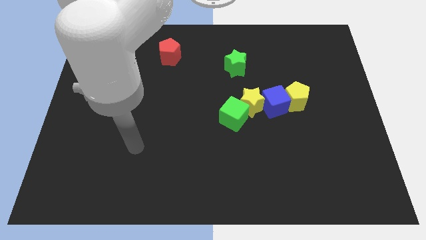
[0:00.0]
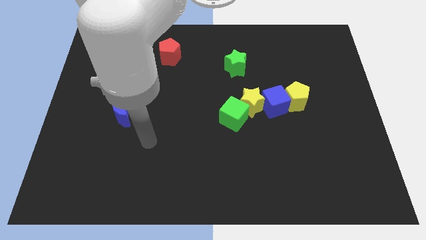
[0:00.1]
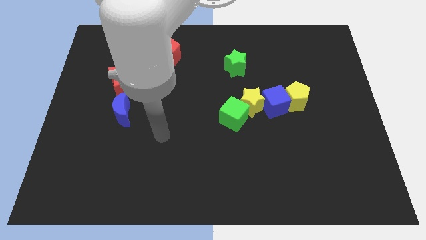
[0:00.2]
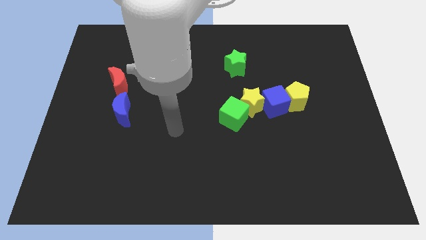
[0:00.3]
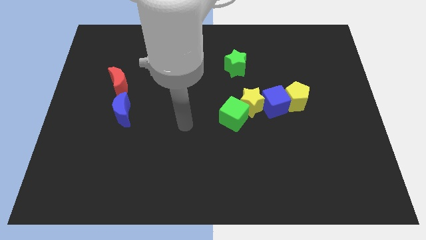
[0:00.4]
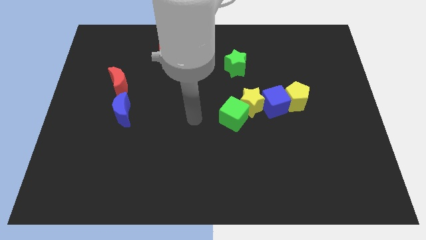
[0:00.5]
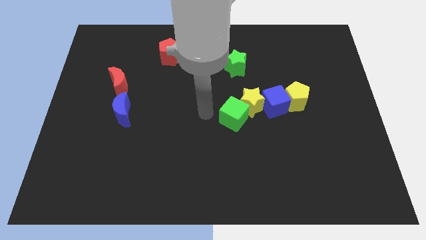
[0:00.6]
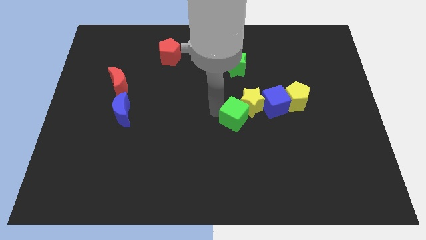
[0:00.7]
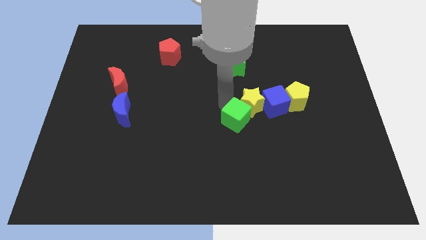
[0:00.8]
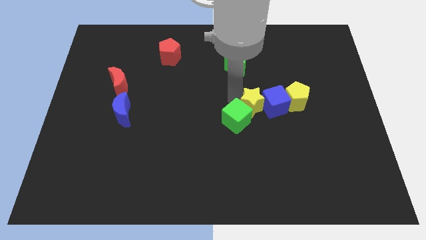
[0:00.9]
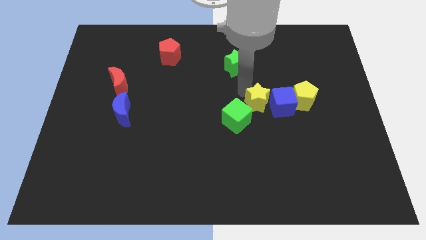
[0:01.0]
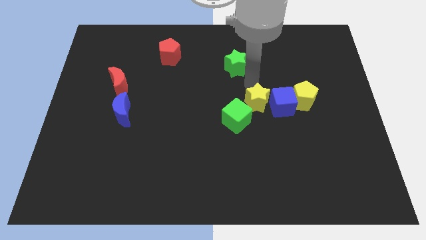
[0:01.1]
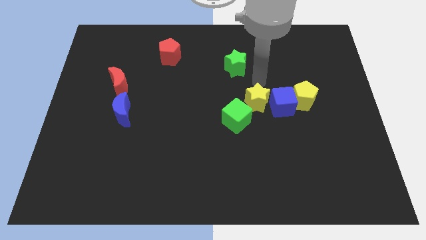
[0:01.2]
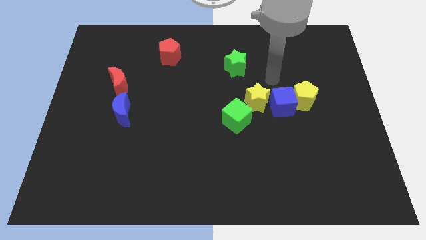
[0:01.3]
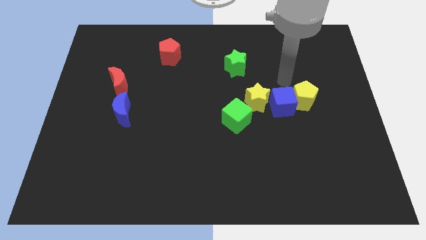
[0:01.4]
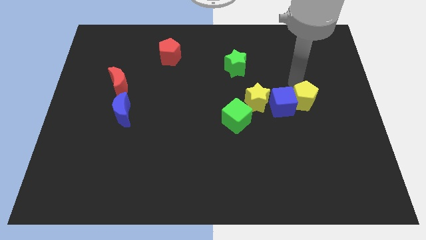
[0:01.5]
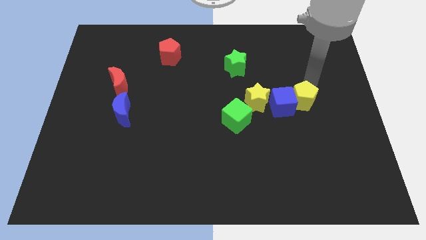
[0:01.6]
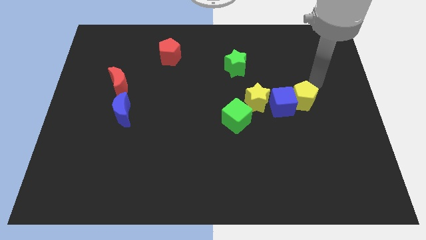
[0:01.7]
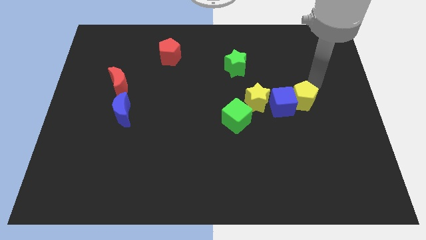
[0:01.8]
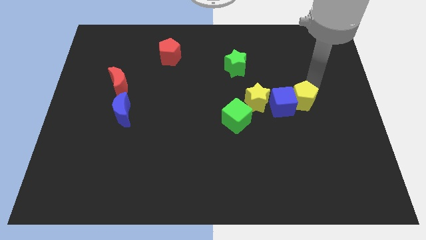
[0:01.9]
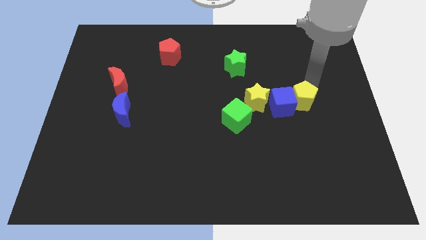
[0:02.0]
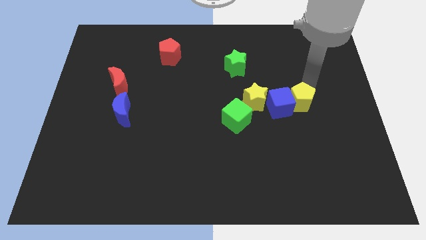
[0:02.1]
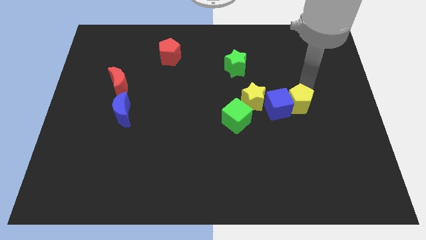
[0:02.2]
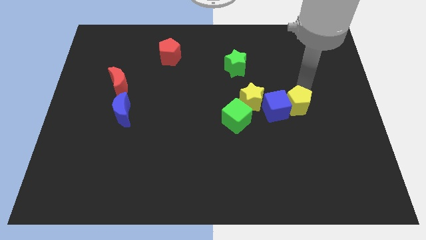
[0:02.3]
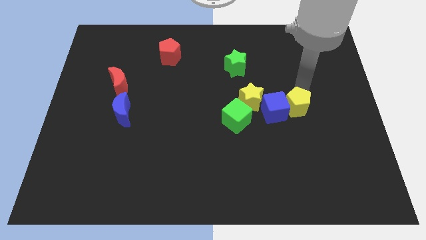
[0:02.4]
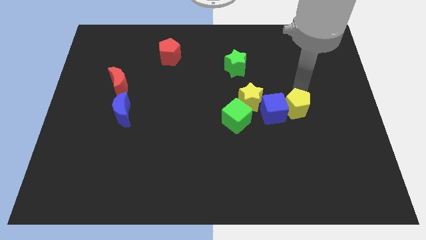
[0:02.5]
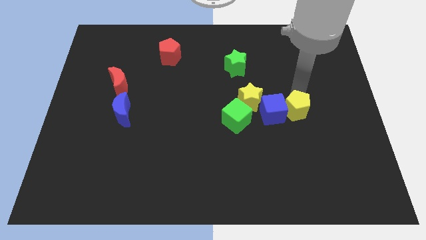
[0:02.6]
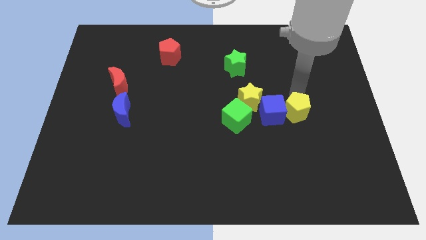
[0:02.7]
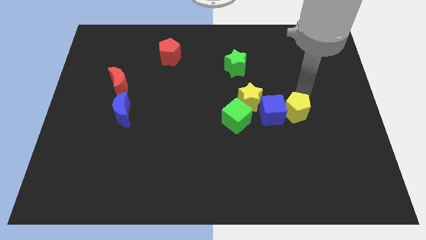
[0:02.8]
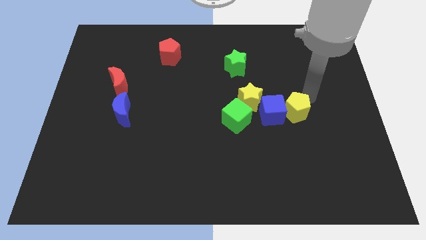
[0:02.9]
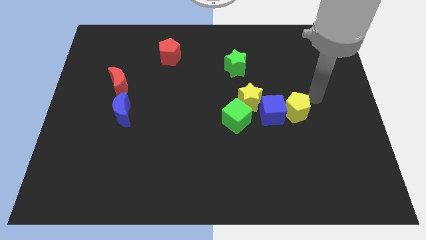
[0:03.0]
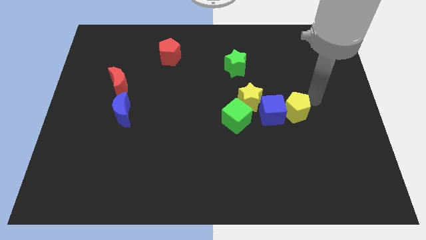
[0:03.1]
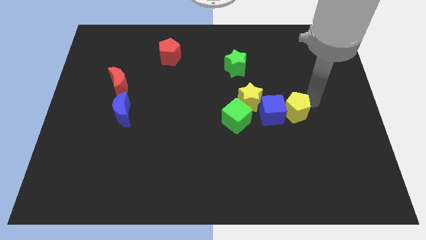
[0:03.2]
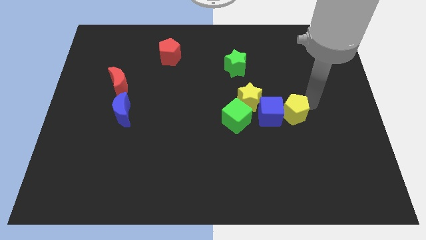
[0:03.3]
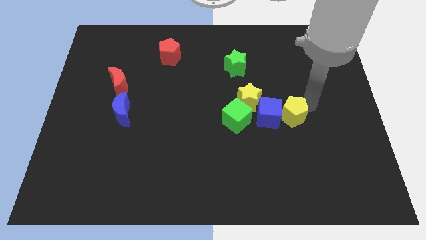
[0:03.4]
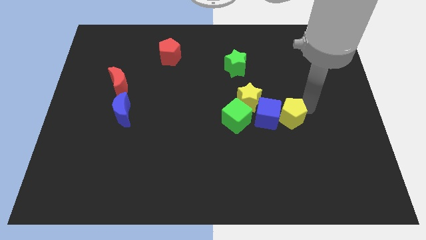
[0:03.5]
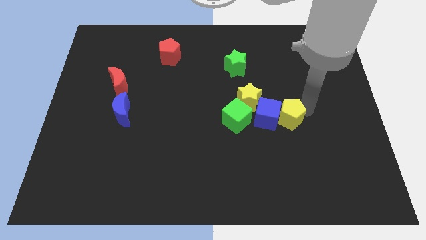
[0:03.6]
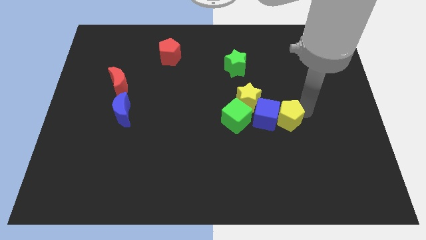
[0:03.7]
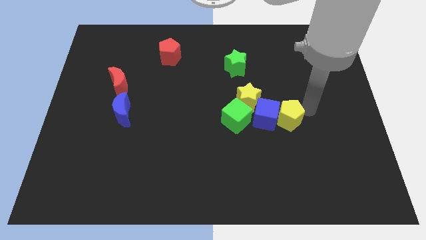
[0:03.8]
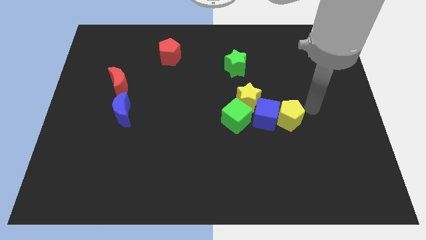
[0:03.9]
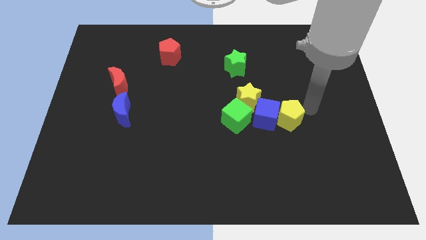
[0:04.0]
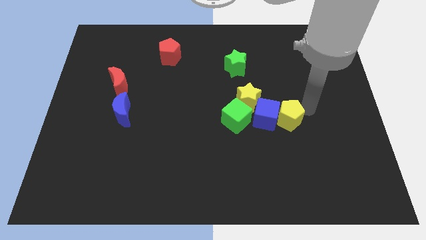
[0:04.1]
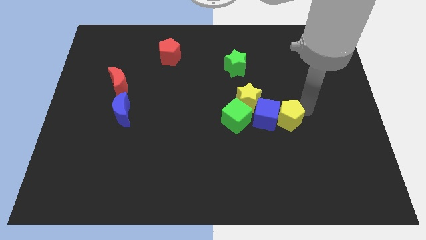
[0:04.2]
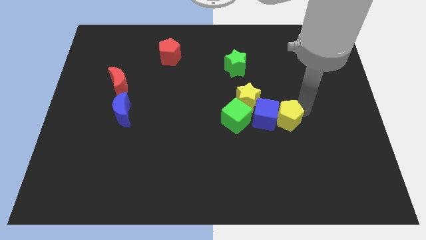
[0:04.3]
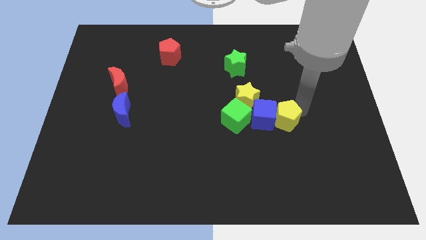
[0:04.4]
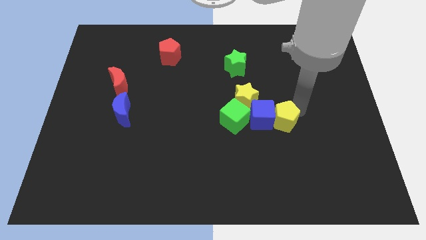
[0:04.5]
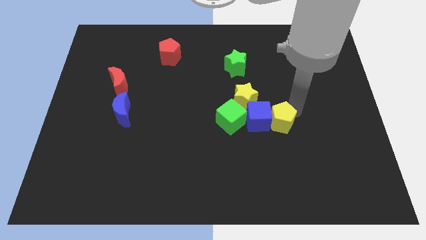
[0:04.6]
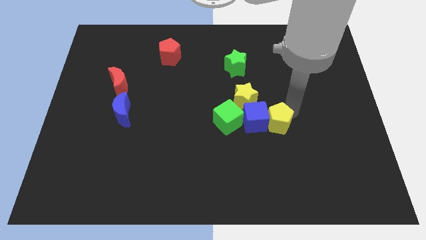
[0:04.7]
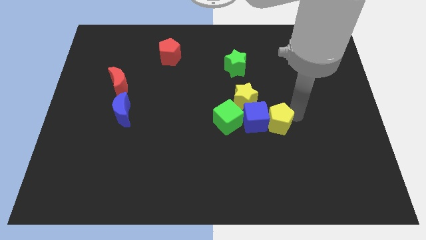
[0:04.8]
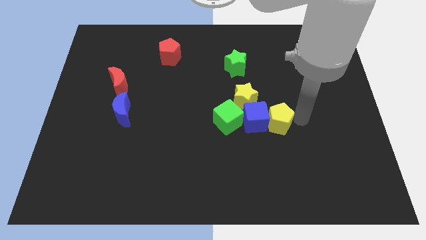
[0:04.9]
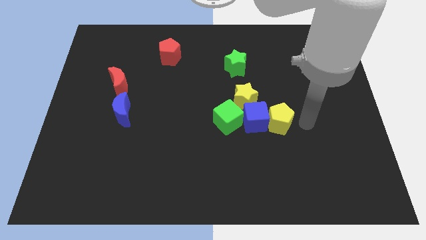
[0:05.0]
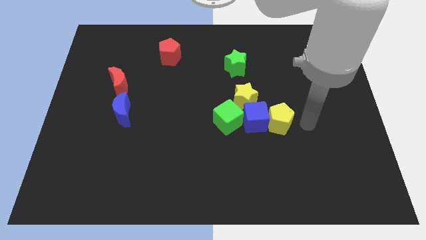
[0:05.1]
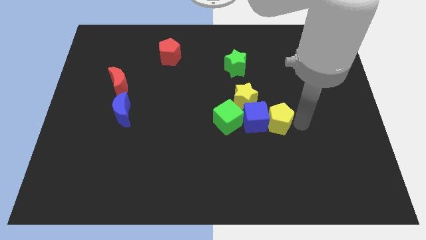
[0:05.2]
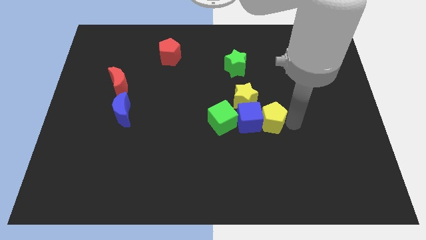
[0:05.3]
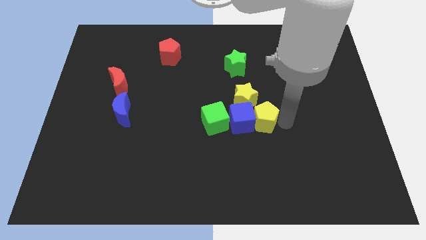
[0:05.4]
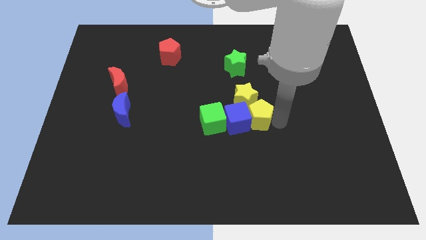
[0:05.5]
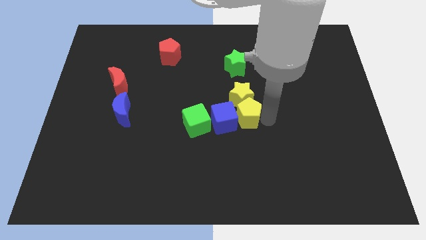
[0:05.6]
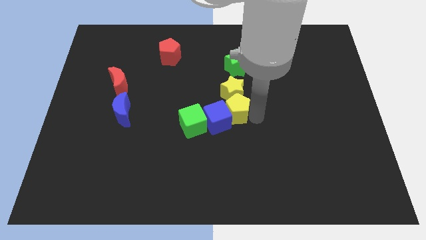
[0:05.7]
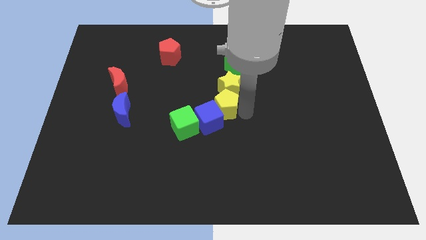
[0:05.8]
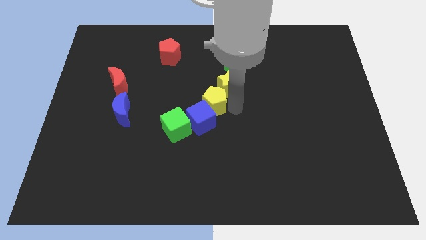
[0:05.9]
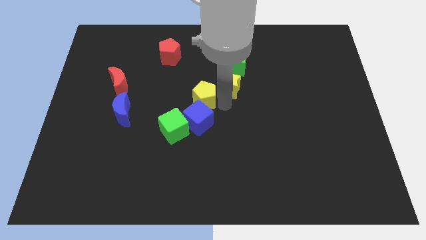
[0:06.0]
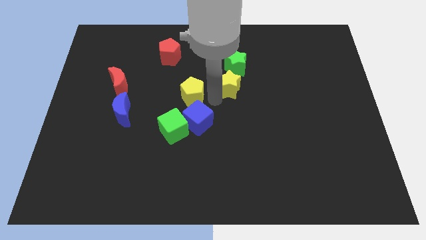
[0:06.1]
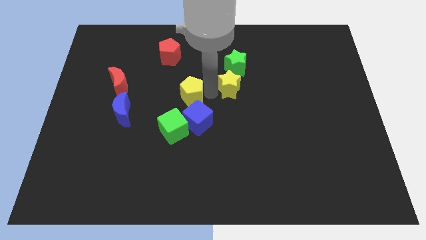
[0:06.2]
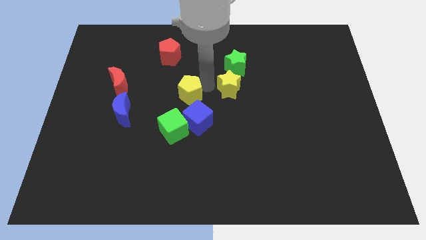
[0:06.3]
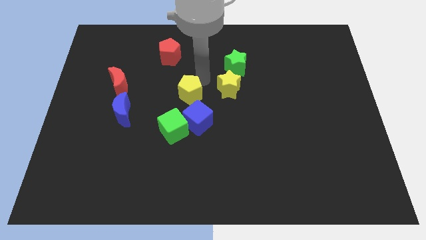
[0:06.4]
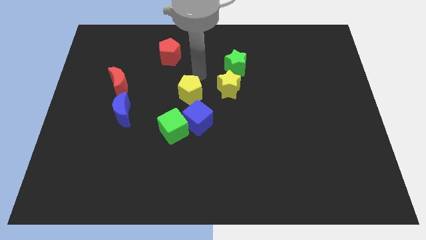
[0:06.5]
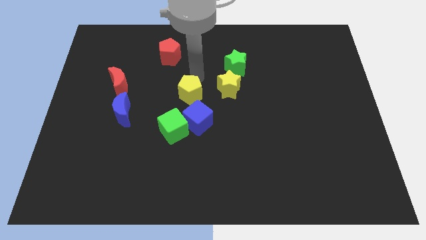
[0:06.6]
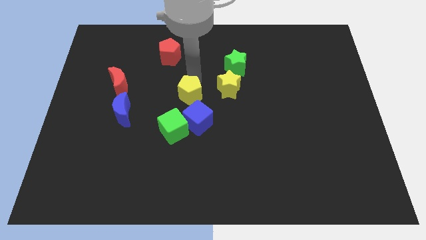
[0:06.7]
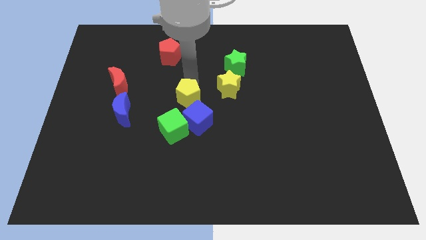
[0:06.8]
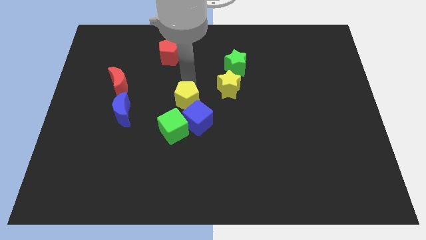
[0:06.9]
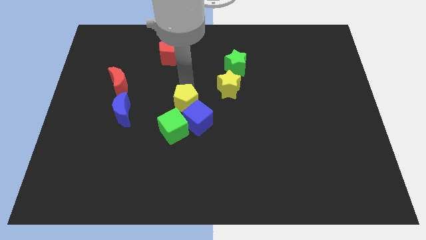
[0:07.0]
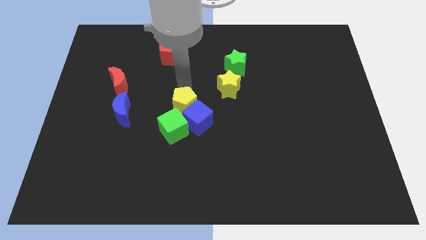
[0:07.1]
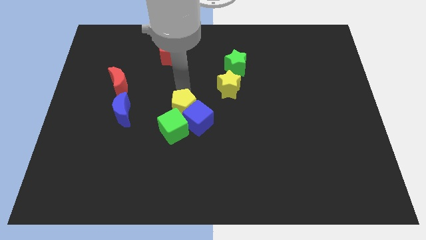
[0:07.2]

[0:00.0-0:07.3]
move the yellow pentagon next to the green cube

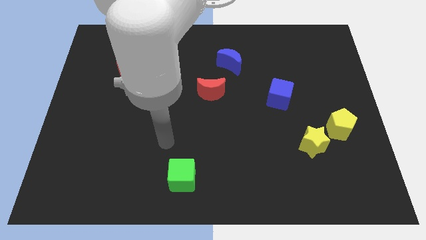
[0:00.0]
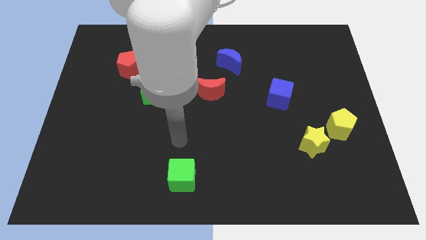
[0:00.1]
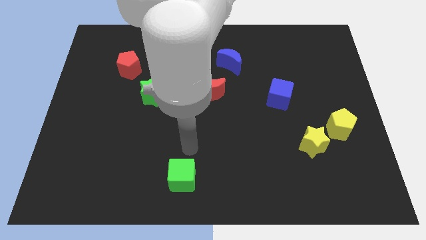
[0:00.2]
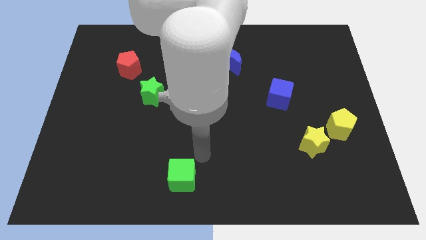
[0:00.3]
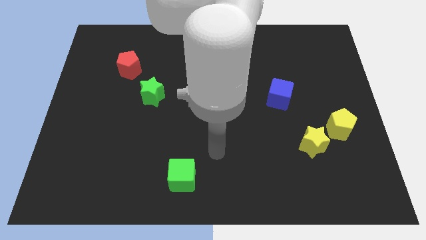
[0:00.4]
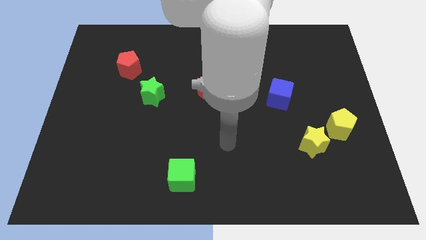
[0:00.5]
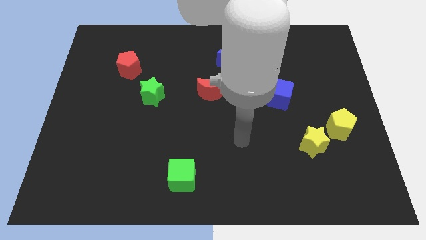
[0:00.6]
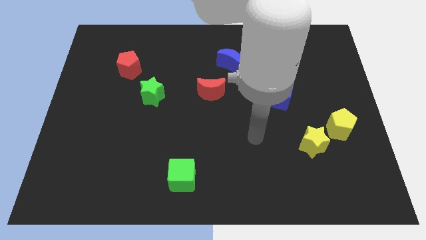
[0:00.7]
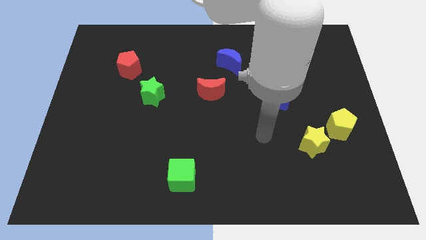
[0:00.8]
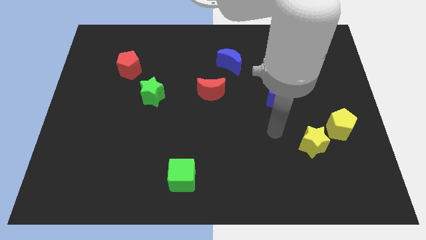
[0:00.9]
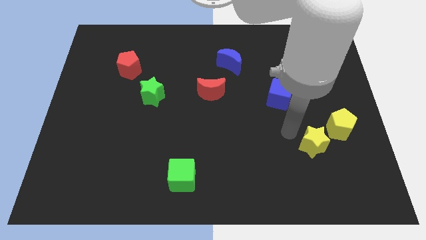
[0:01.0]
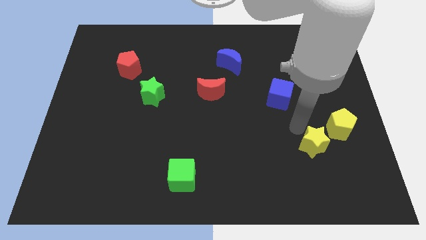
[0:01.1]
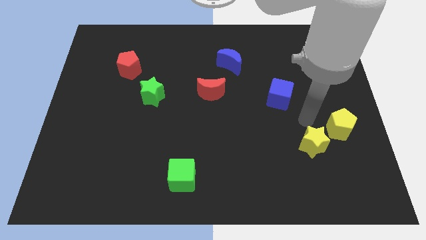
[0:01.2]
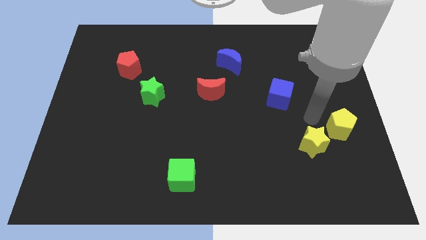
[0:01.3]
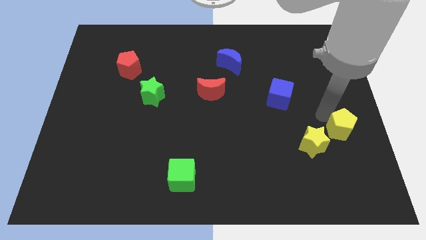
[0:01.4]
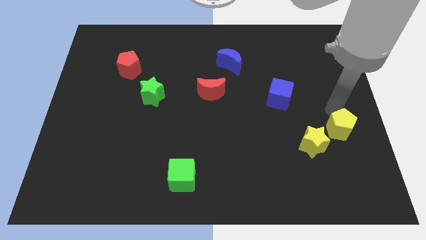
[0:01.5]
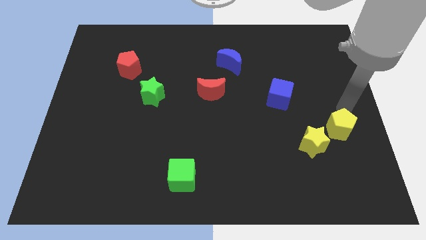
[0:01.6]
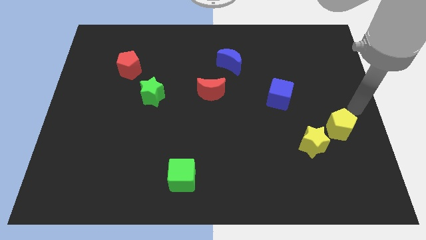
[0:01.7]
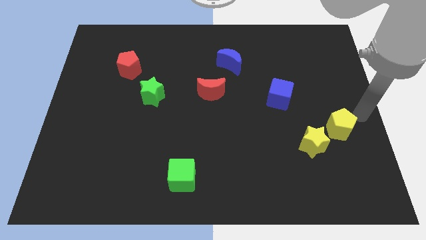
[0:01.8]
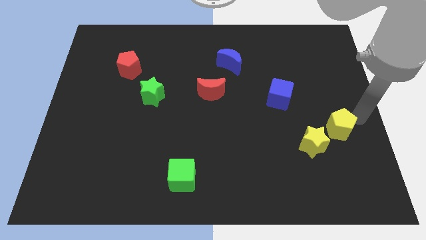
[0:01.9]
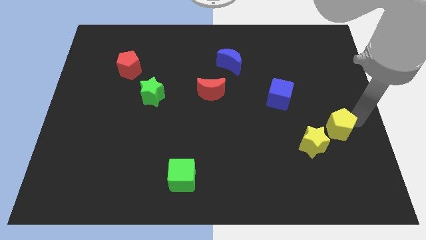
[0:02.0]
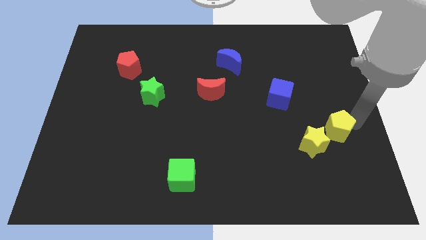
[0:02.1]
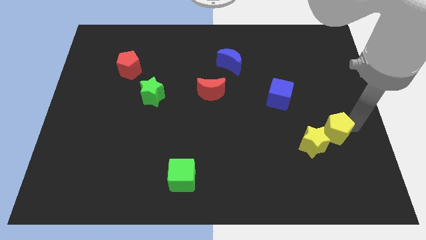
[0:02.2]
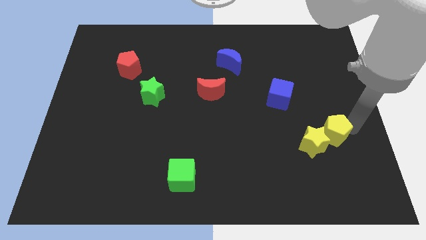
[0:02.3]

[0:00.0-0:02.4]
put the yellow pentagon close to the yellow star
